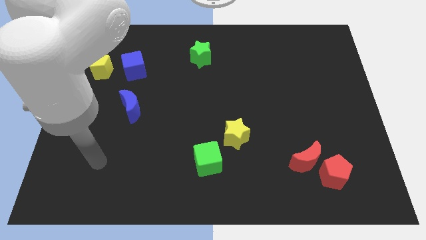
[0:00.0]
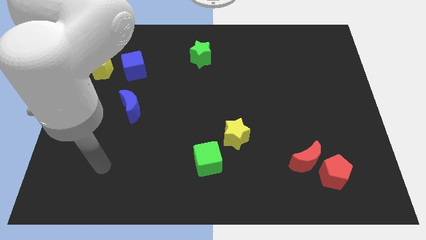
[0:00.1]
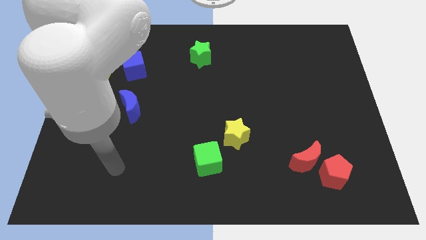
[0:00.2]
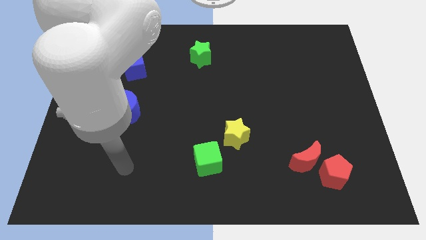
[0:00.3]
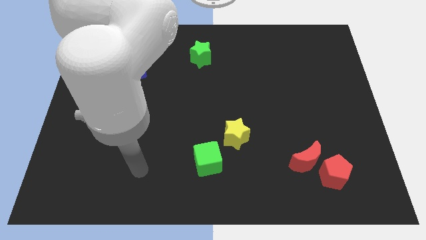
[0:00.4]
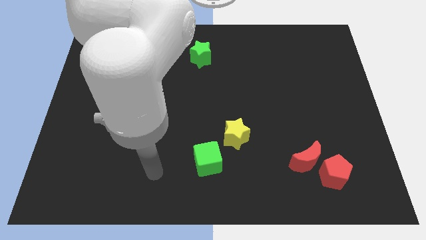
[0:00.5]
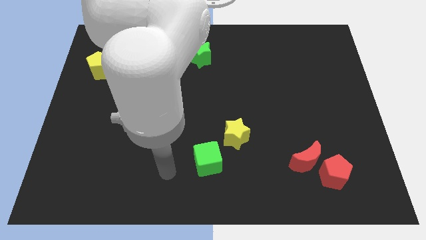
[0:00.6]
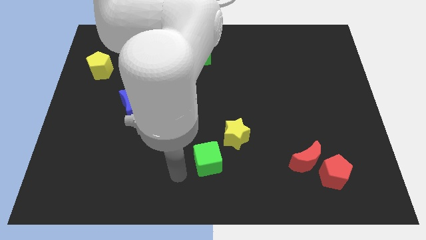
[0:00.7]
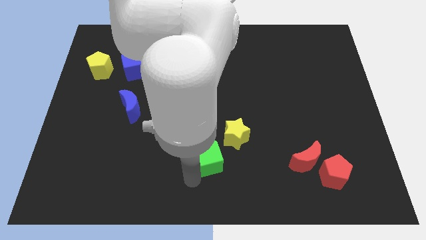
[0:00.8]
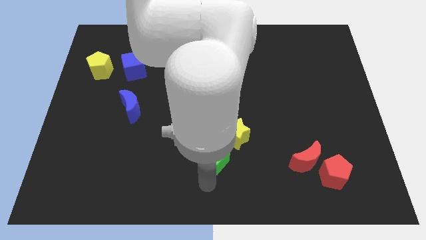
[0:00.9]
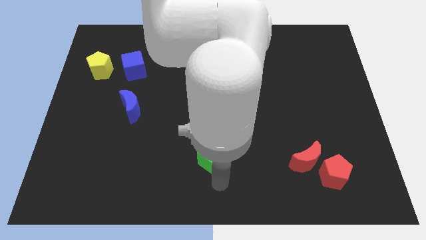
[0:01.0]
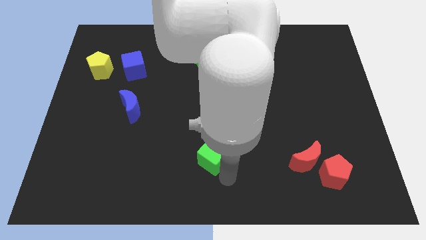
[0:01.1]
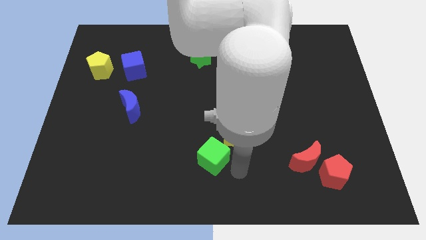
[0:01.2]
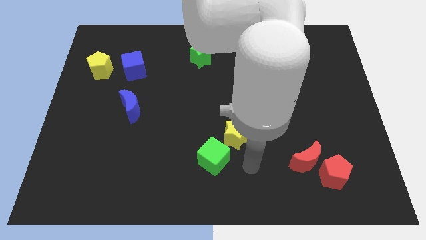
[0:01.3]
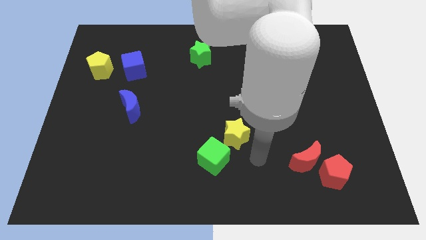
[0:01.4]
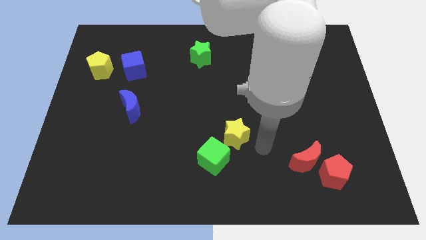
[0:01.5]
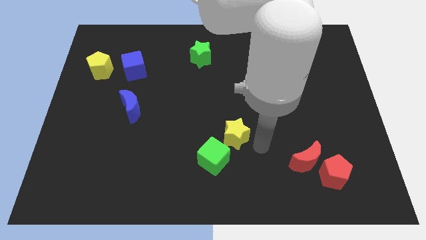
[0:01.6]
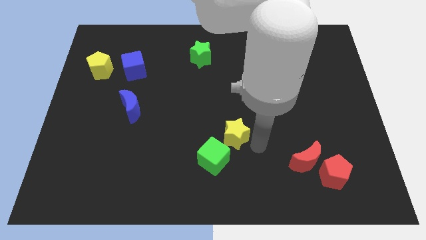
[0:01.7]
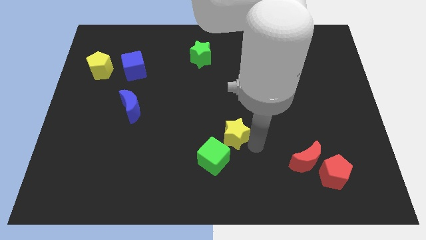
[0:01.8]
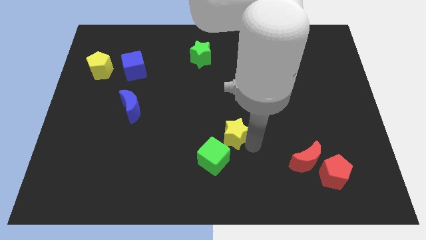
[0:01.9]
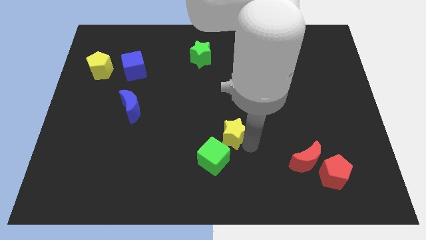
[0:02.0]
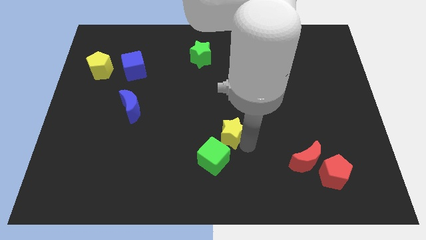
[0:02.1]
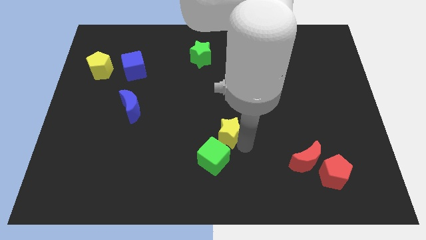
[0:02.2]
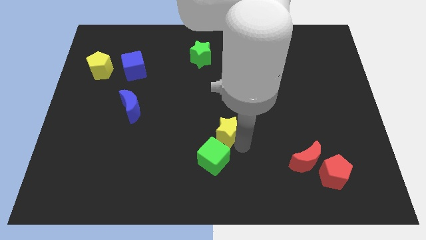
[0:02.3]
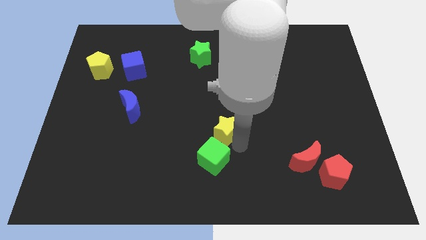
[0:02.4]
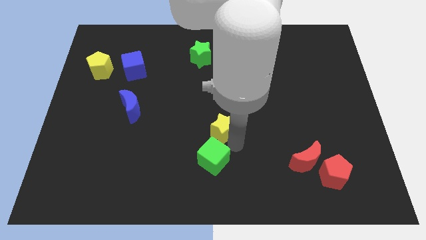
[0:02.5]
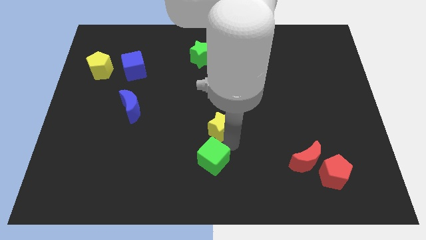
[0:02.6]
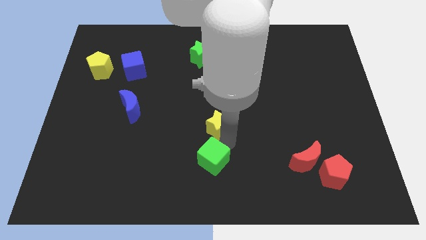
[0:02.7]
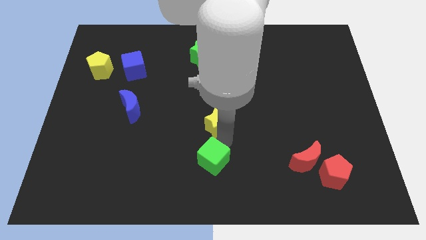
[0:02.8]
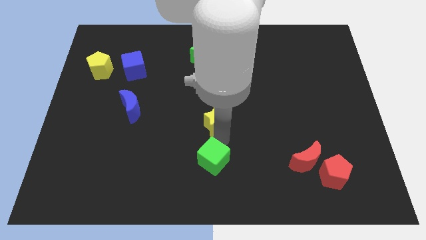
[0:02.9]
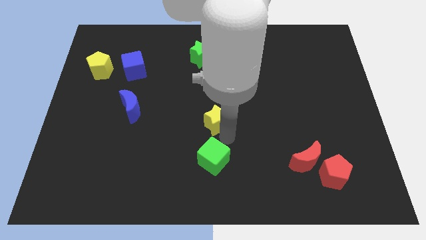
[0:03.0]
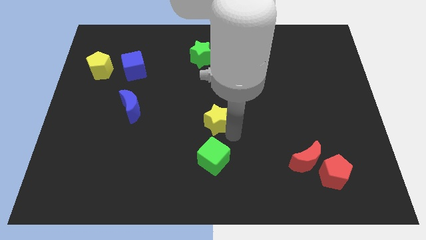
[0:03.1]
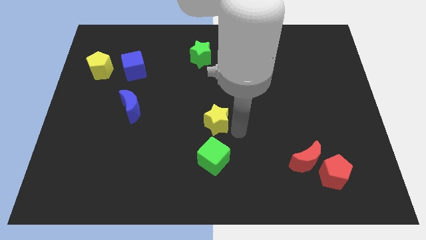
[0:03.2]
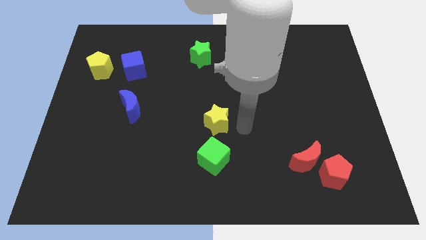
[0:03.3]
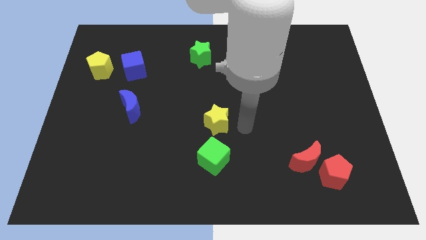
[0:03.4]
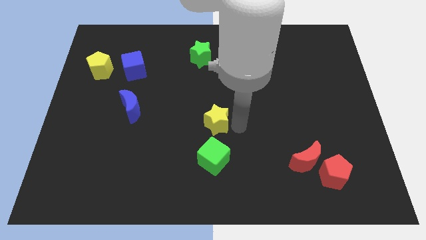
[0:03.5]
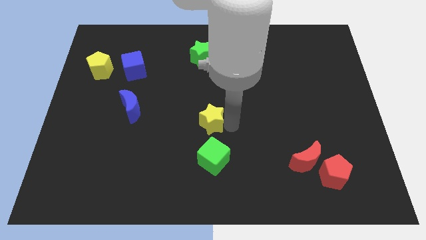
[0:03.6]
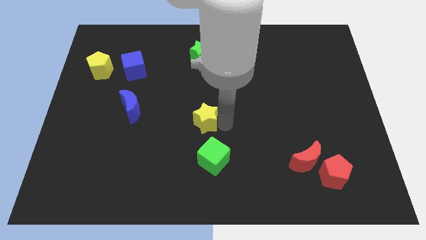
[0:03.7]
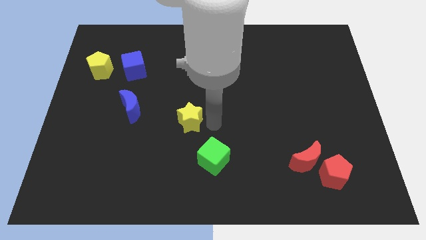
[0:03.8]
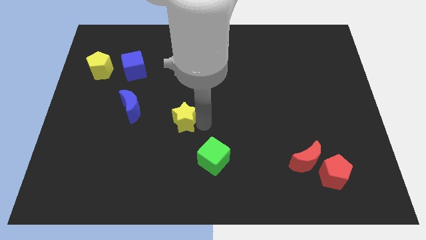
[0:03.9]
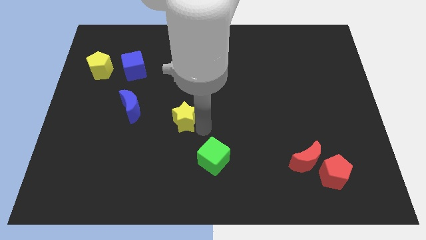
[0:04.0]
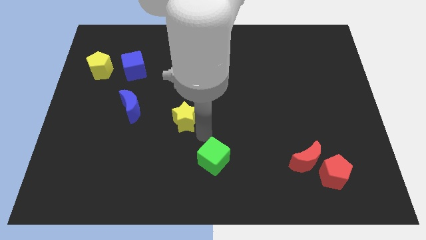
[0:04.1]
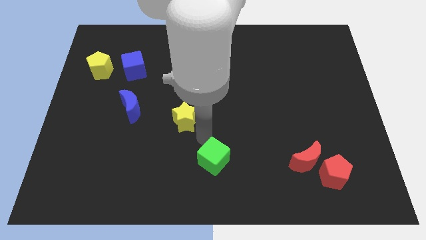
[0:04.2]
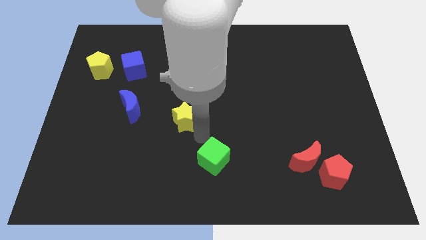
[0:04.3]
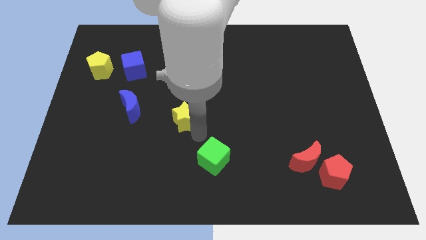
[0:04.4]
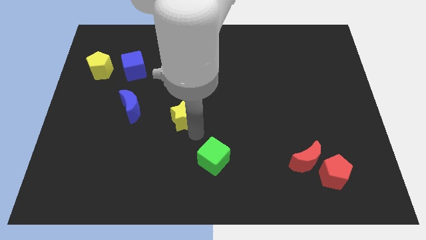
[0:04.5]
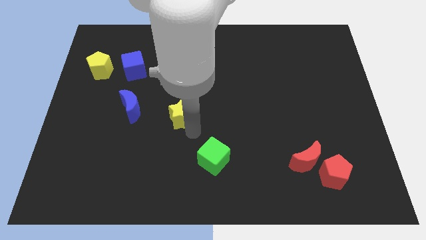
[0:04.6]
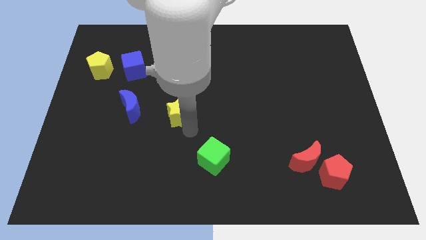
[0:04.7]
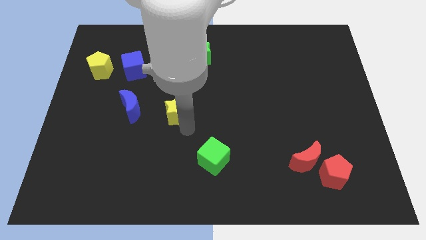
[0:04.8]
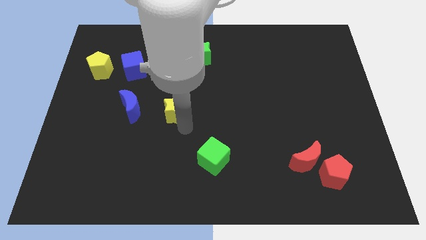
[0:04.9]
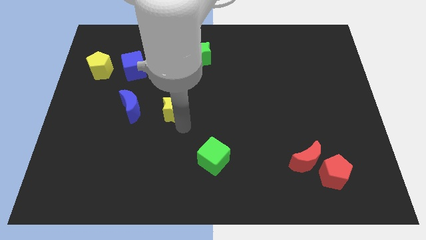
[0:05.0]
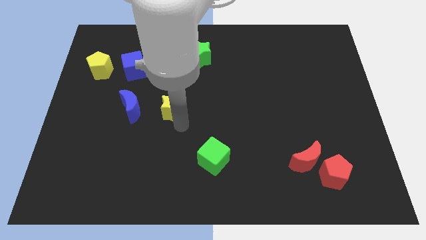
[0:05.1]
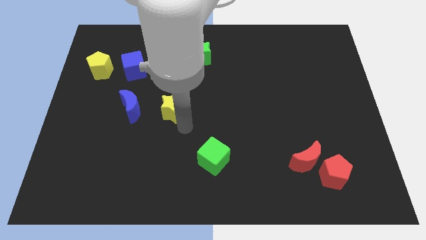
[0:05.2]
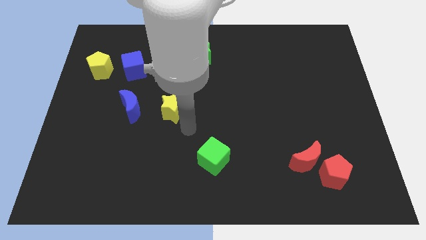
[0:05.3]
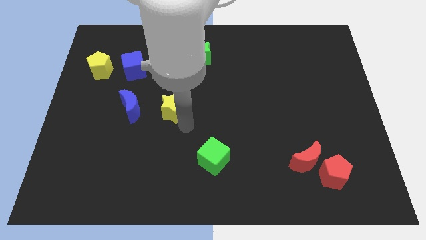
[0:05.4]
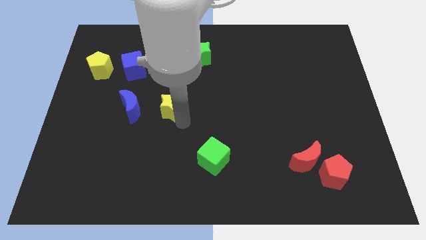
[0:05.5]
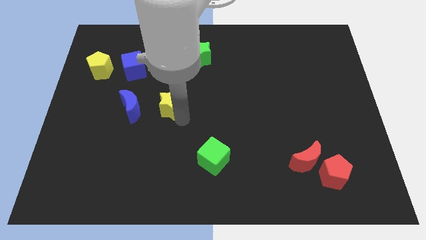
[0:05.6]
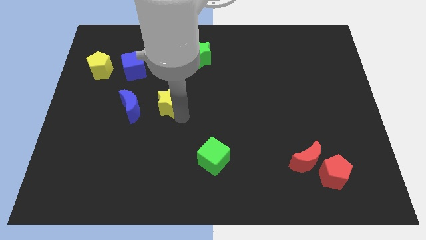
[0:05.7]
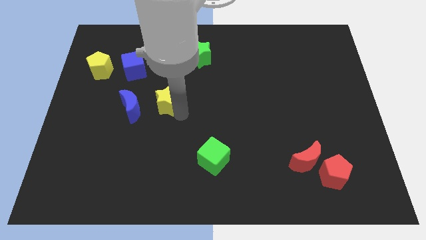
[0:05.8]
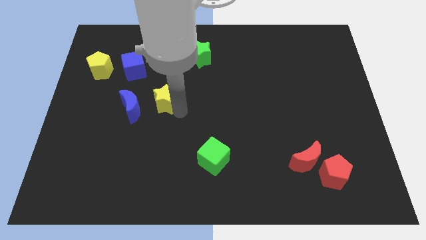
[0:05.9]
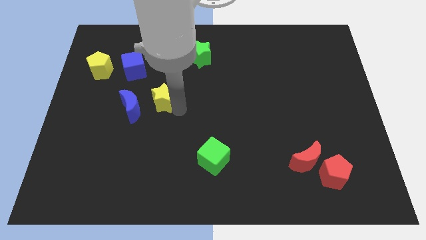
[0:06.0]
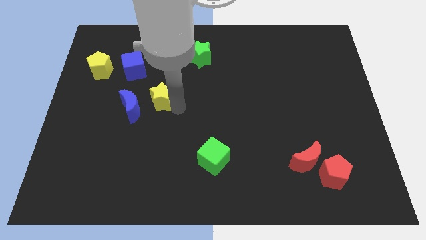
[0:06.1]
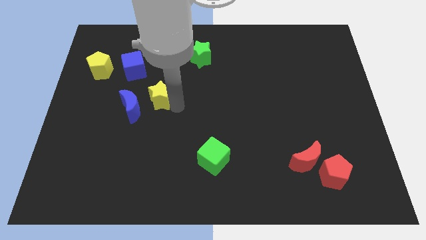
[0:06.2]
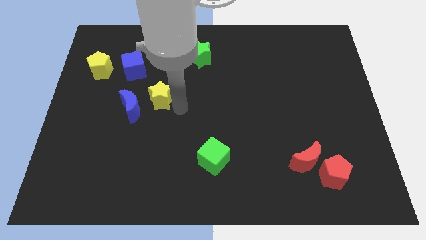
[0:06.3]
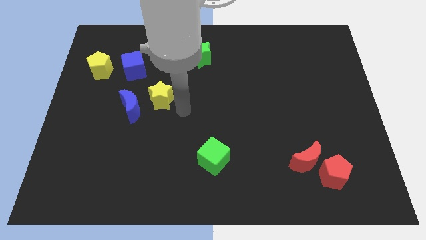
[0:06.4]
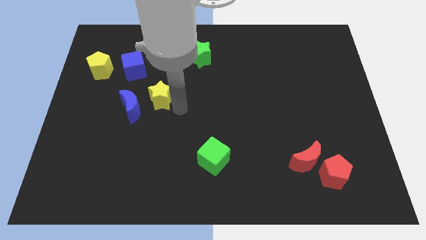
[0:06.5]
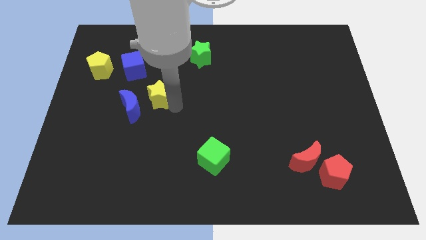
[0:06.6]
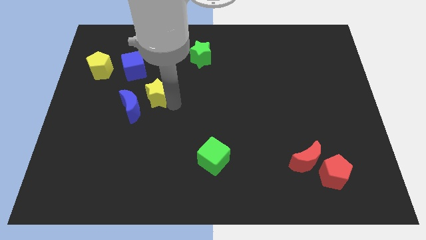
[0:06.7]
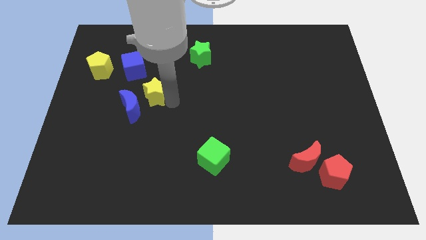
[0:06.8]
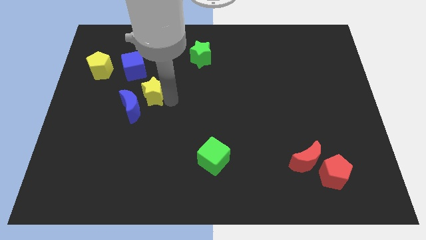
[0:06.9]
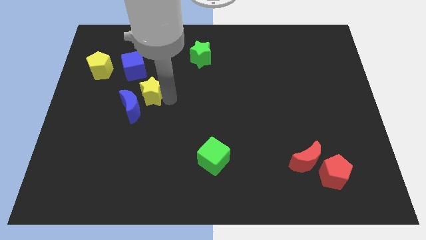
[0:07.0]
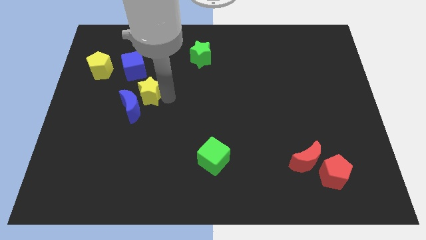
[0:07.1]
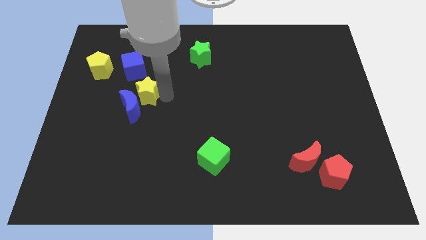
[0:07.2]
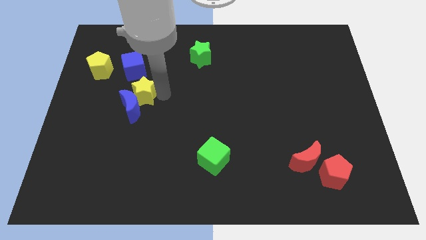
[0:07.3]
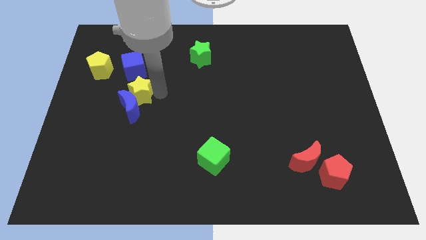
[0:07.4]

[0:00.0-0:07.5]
slide the yellow star diagonally up and to the left of the blue moon
